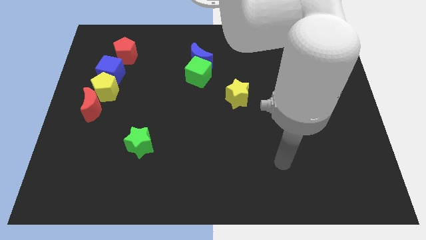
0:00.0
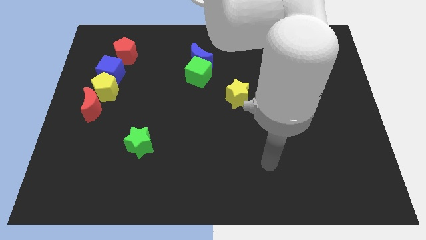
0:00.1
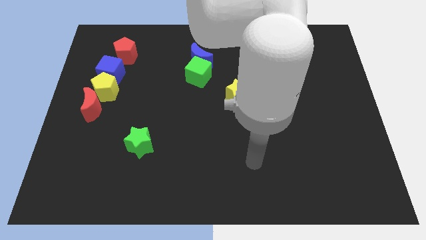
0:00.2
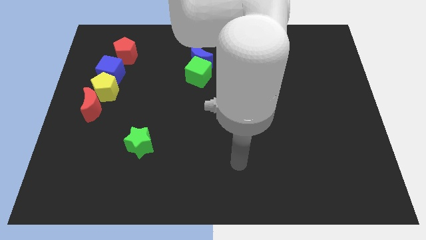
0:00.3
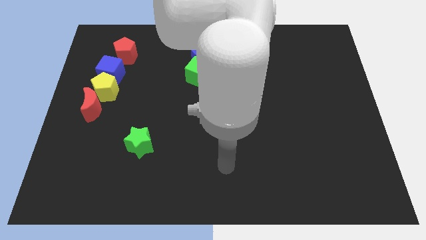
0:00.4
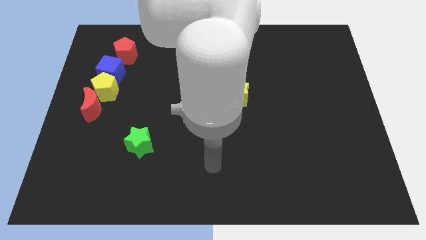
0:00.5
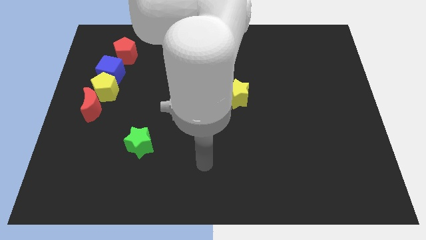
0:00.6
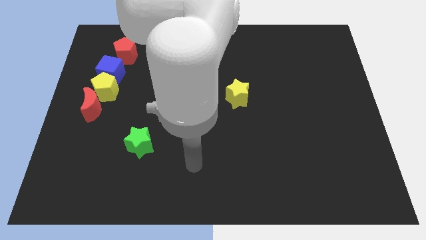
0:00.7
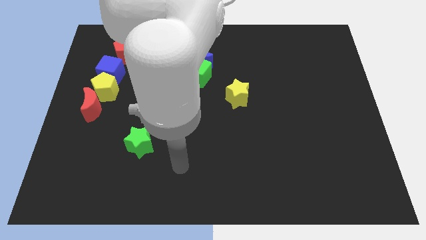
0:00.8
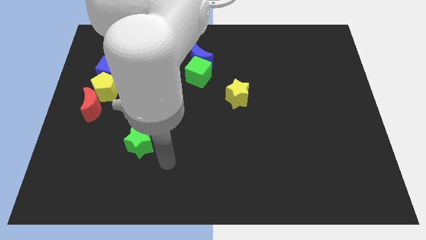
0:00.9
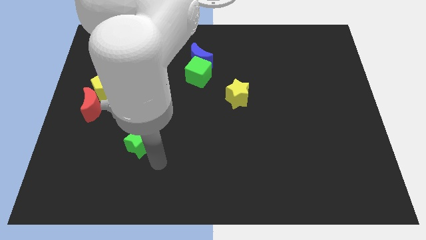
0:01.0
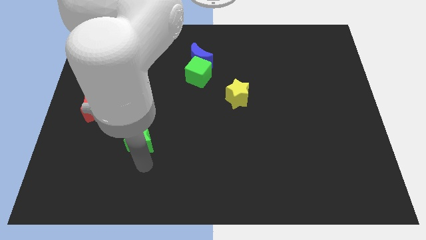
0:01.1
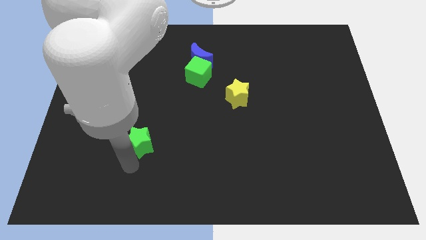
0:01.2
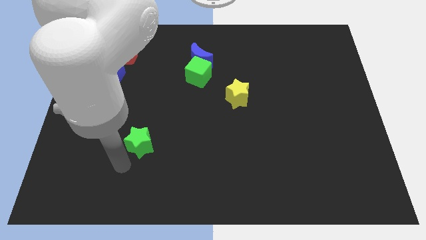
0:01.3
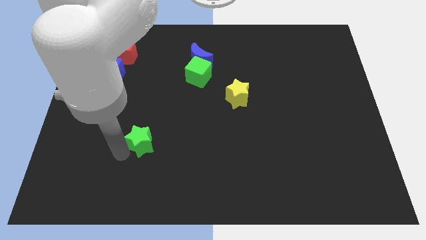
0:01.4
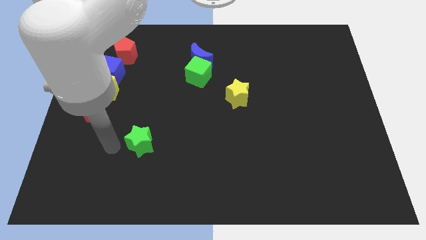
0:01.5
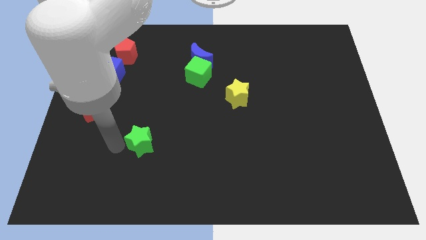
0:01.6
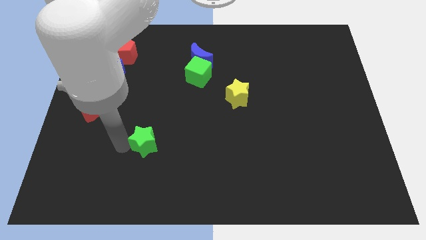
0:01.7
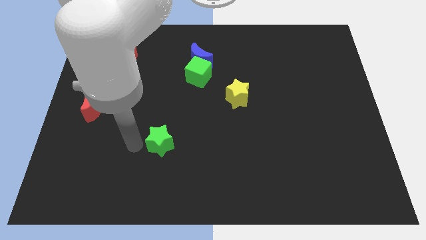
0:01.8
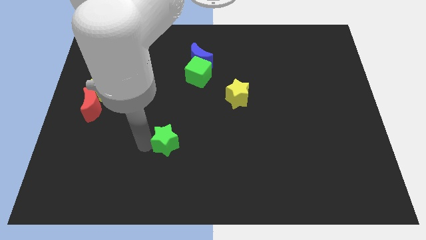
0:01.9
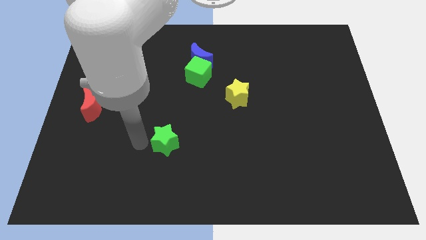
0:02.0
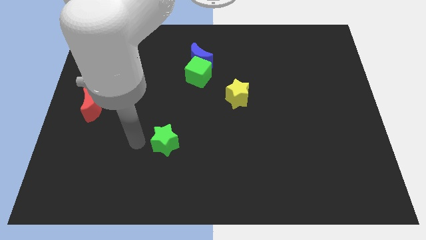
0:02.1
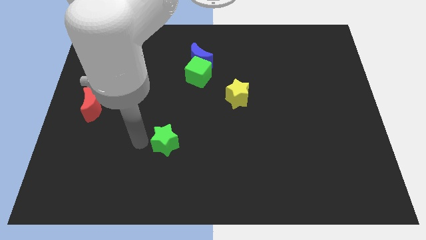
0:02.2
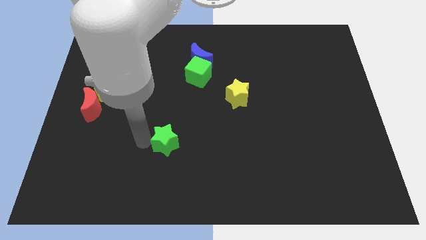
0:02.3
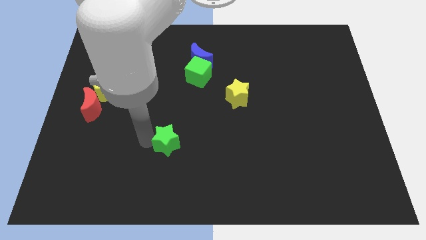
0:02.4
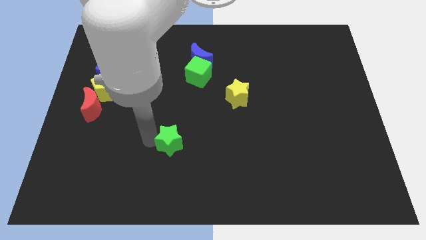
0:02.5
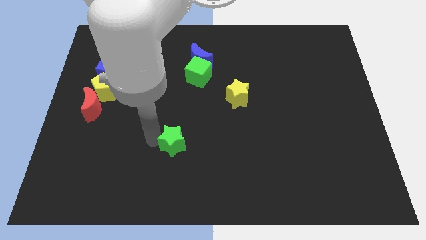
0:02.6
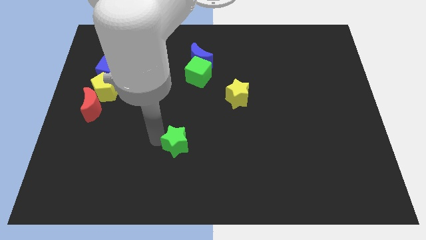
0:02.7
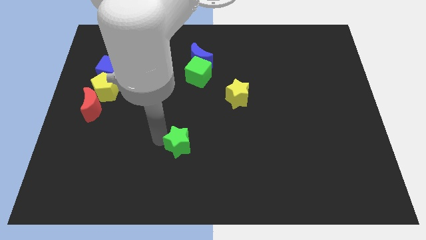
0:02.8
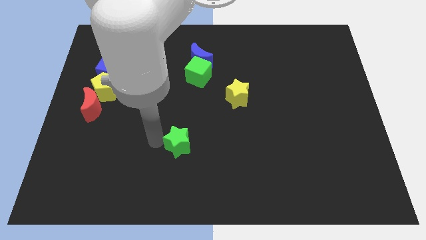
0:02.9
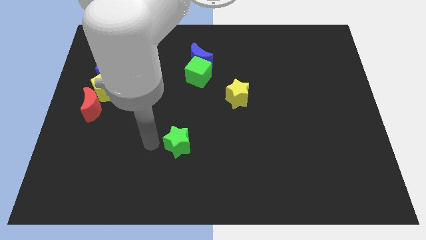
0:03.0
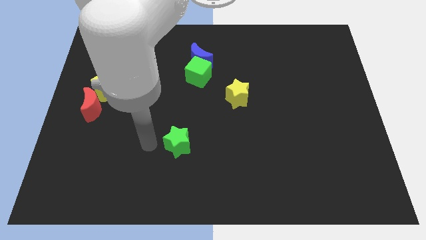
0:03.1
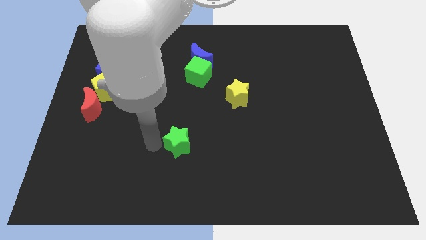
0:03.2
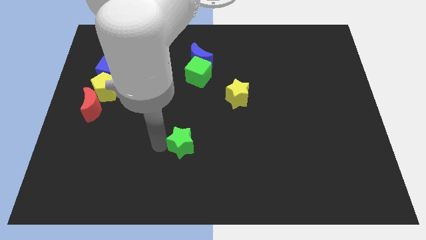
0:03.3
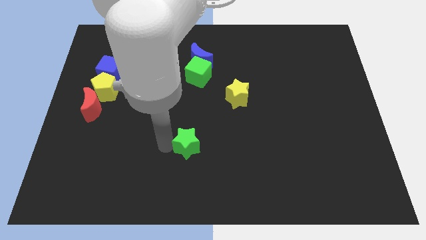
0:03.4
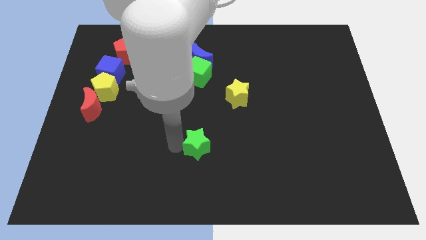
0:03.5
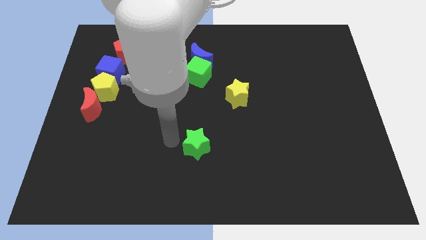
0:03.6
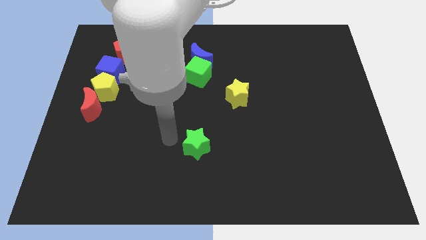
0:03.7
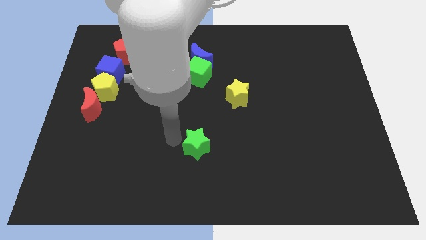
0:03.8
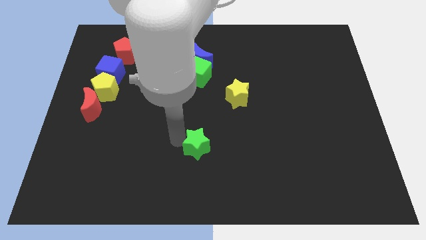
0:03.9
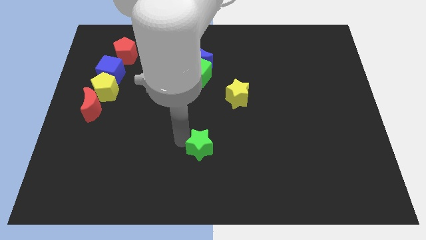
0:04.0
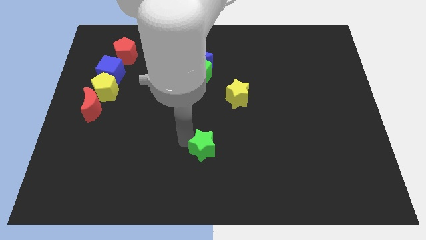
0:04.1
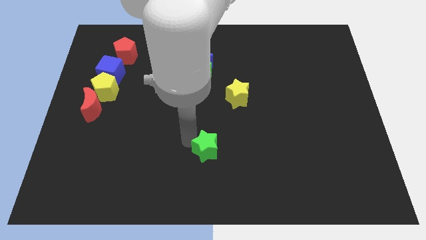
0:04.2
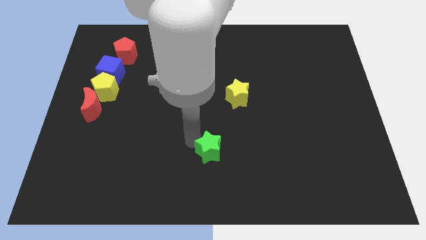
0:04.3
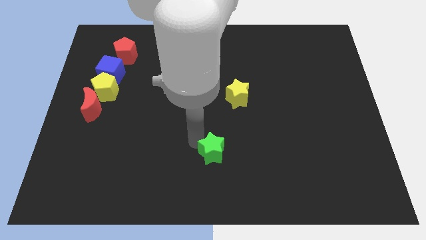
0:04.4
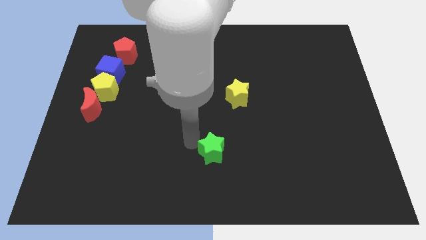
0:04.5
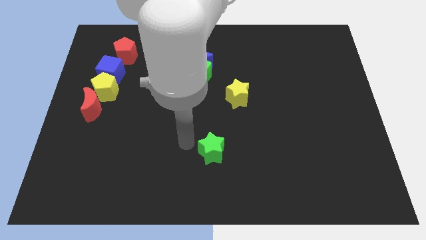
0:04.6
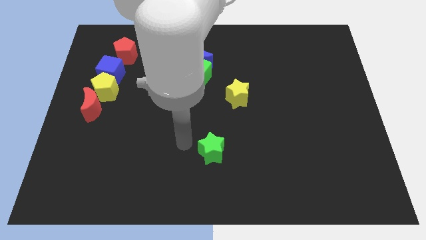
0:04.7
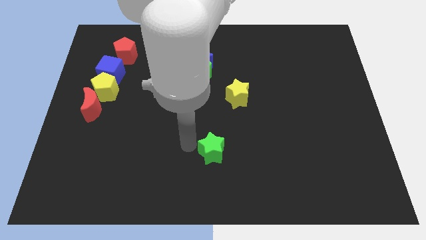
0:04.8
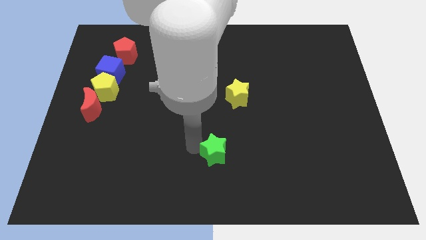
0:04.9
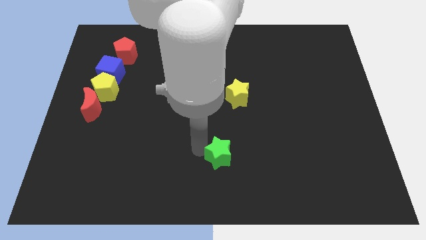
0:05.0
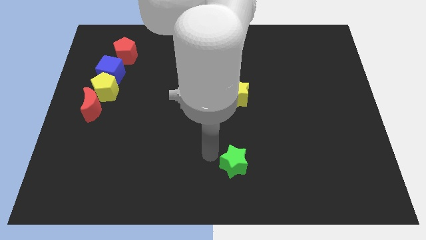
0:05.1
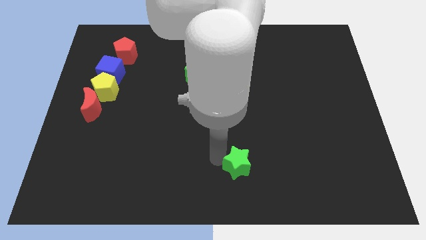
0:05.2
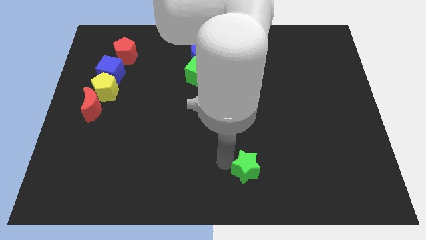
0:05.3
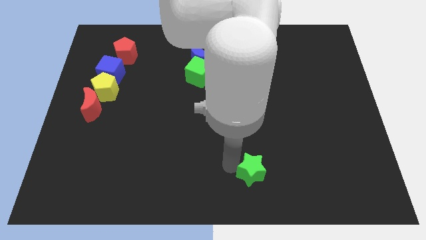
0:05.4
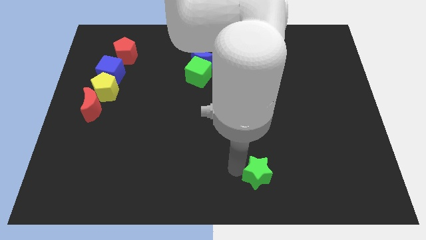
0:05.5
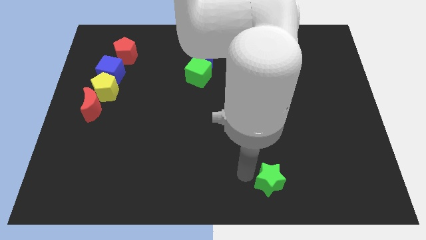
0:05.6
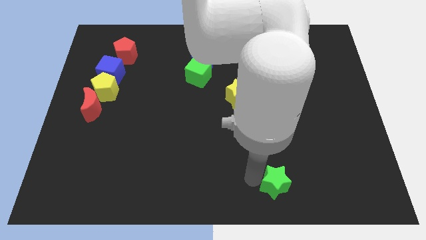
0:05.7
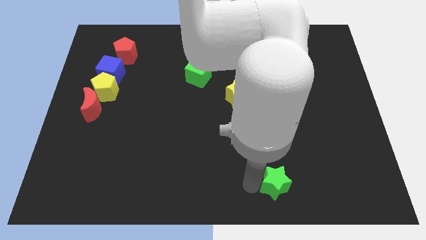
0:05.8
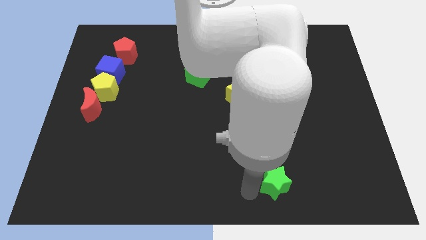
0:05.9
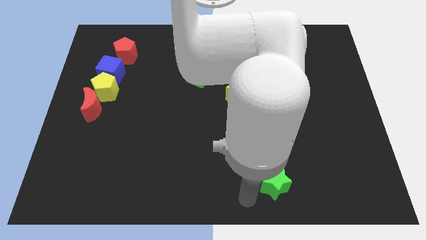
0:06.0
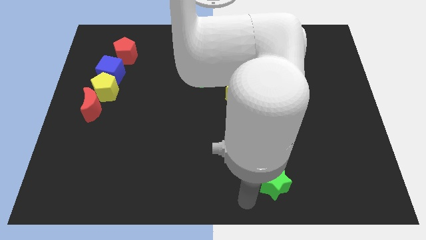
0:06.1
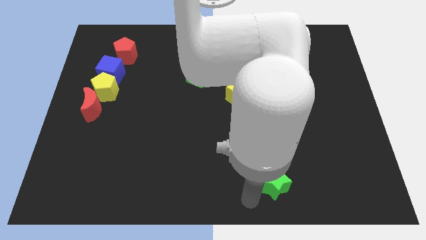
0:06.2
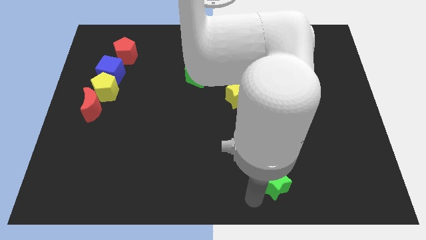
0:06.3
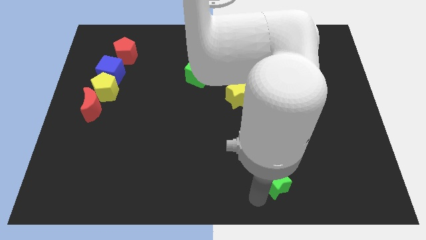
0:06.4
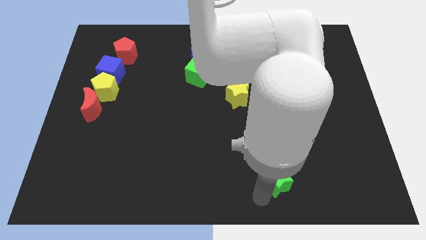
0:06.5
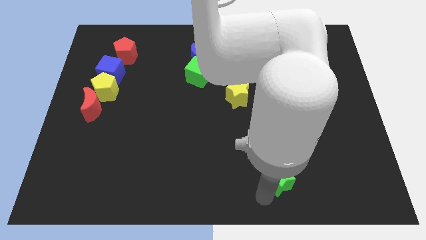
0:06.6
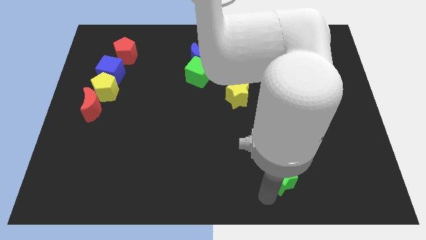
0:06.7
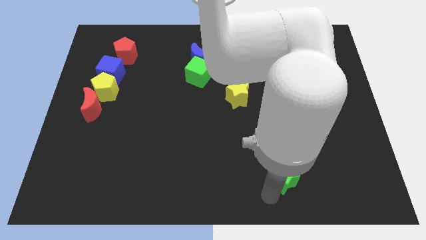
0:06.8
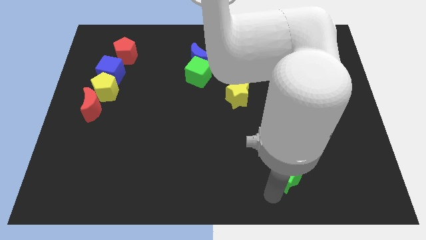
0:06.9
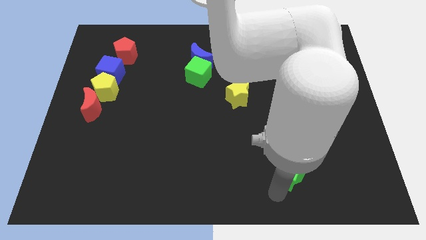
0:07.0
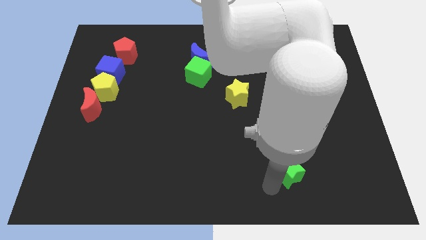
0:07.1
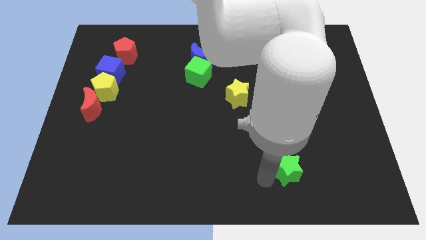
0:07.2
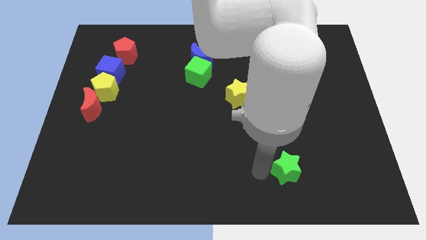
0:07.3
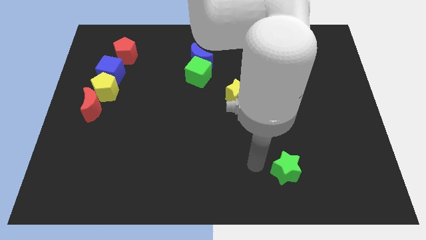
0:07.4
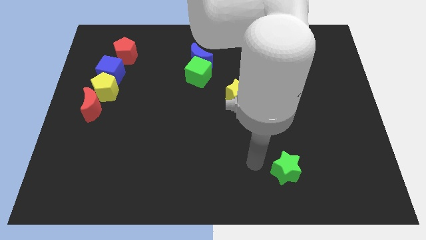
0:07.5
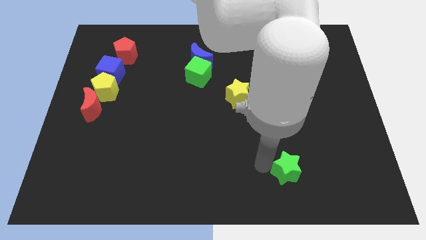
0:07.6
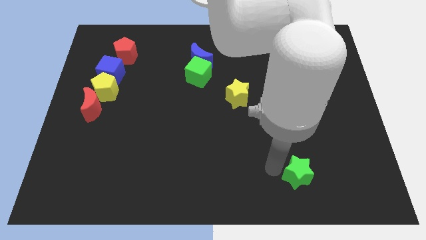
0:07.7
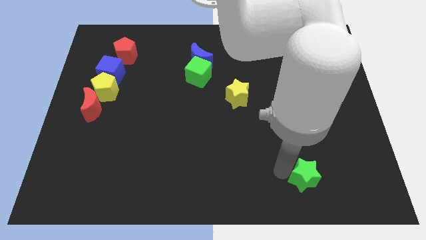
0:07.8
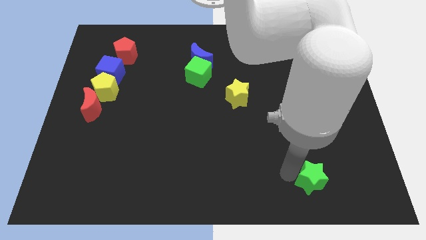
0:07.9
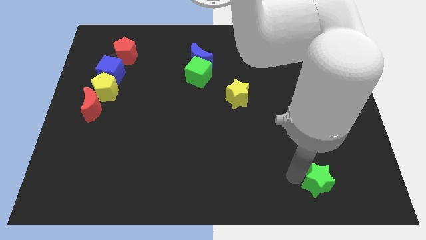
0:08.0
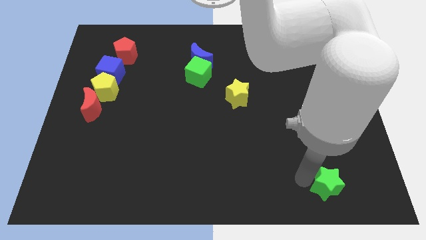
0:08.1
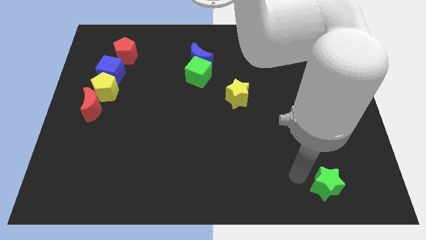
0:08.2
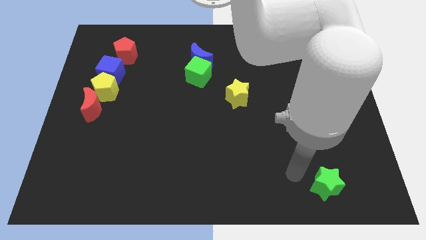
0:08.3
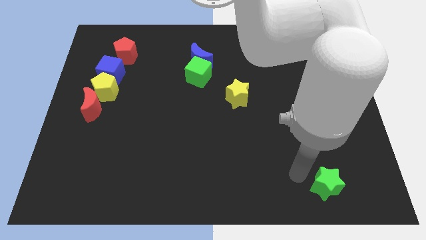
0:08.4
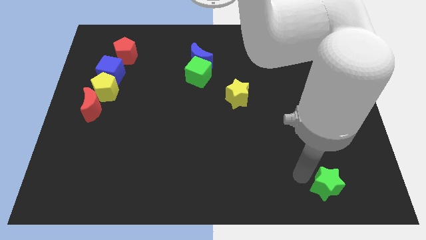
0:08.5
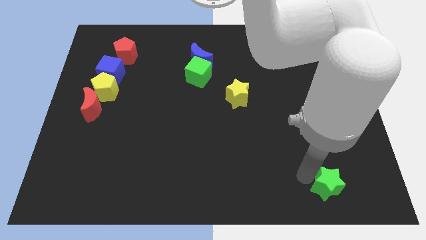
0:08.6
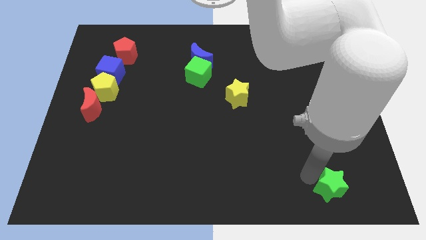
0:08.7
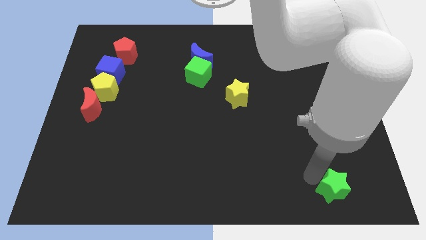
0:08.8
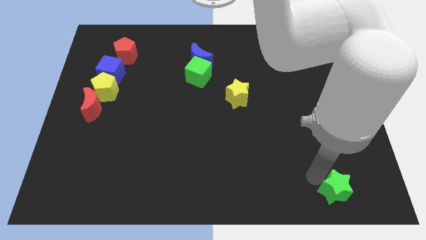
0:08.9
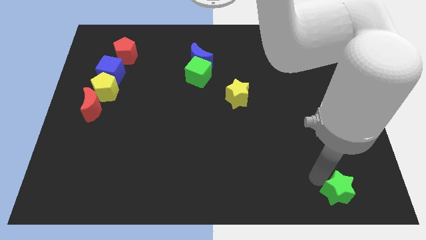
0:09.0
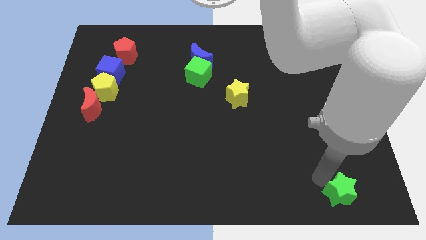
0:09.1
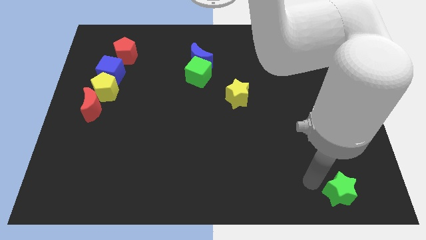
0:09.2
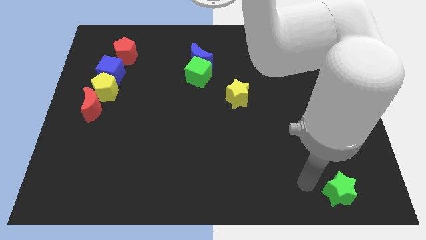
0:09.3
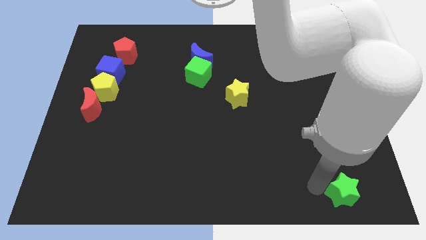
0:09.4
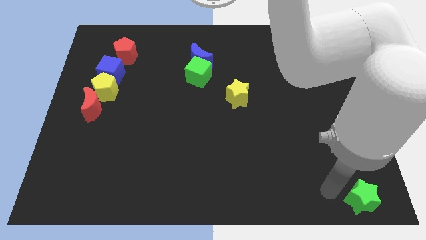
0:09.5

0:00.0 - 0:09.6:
slide the green star to the lower right corner
